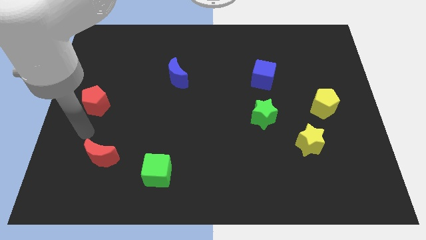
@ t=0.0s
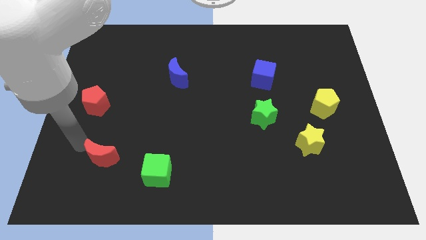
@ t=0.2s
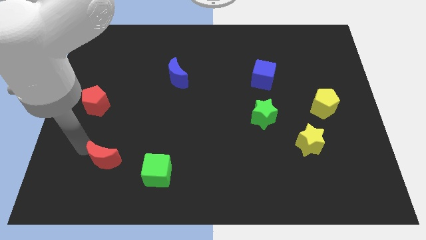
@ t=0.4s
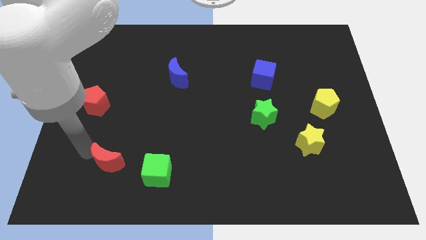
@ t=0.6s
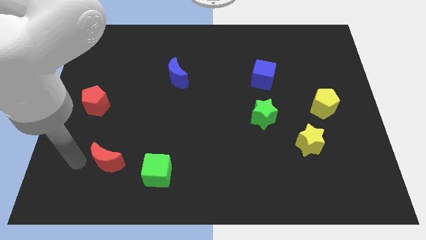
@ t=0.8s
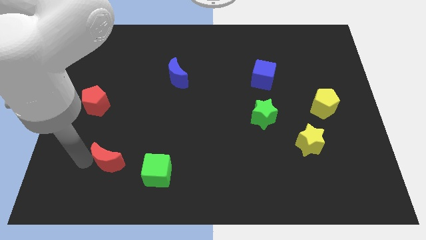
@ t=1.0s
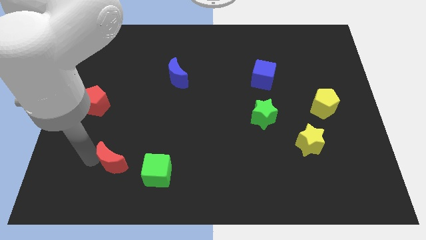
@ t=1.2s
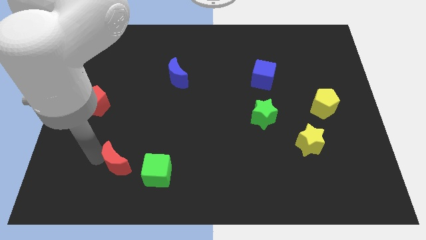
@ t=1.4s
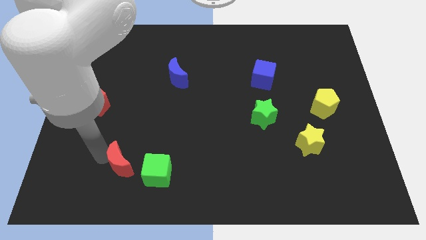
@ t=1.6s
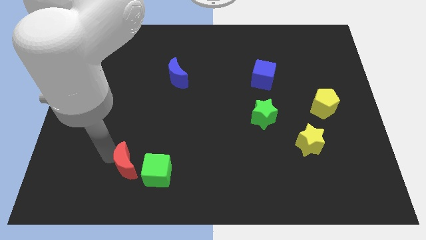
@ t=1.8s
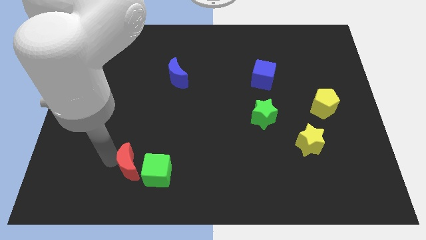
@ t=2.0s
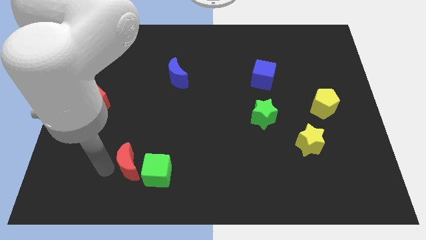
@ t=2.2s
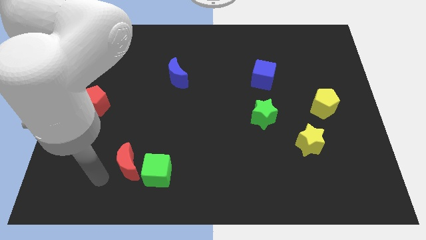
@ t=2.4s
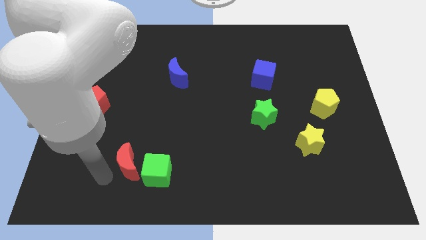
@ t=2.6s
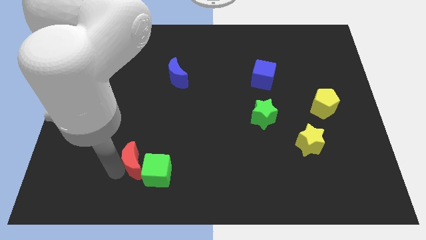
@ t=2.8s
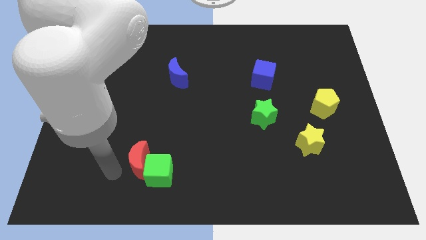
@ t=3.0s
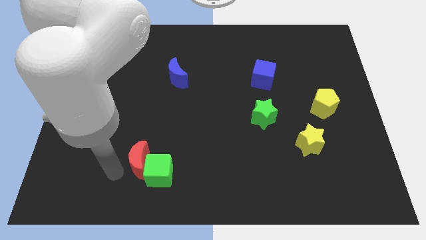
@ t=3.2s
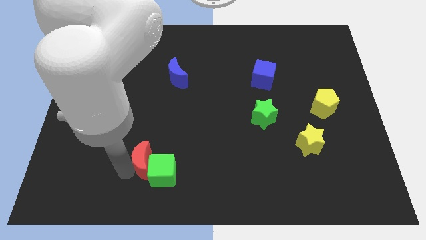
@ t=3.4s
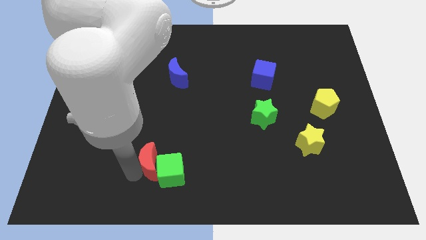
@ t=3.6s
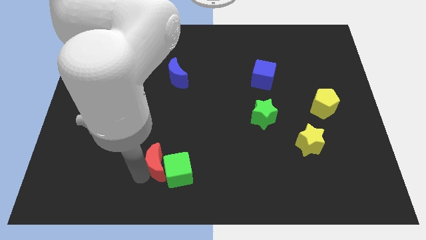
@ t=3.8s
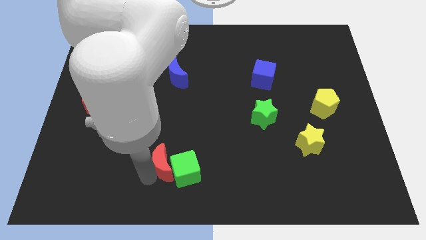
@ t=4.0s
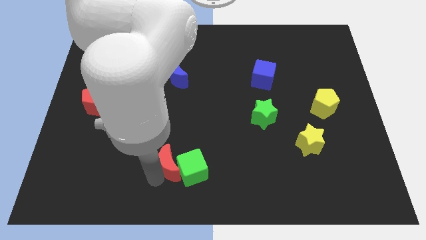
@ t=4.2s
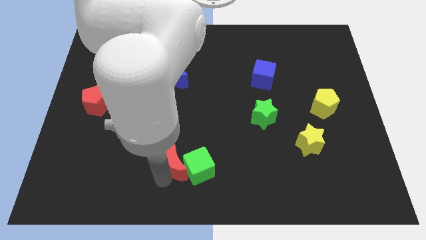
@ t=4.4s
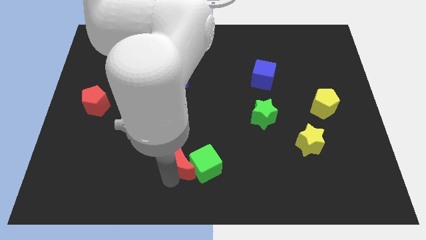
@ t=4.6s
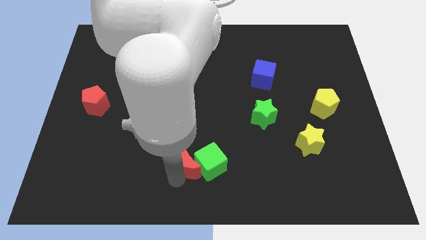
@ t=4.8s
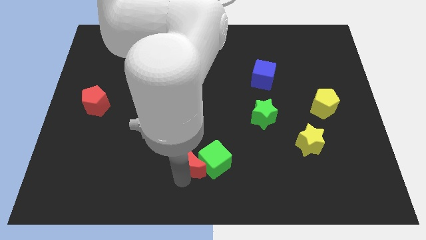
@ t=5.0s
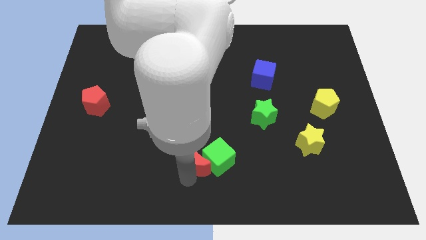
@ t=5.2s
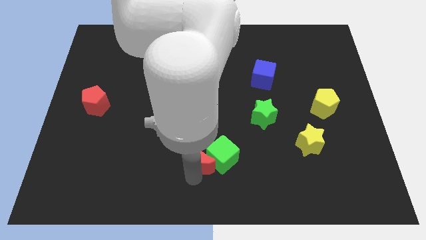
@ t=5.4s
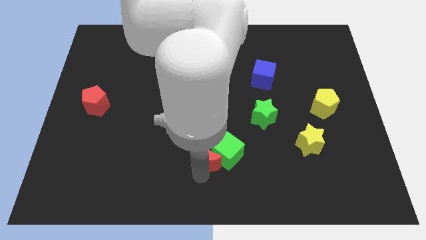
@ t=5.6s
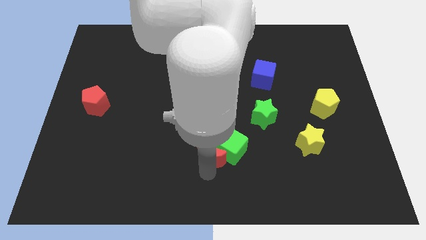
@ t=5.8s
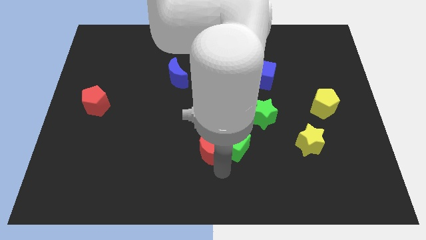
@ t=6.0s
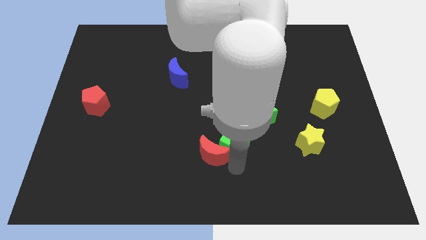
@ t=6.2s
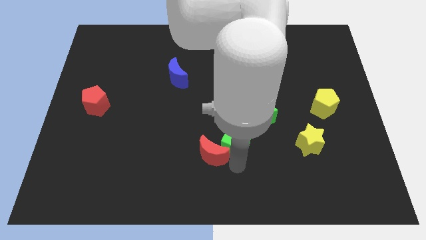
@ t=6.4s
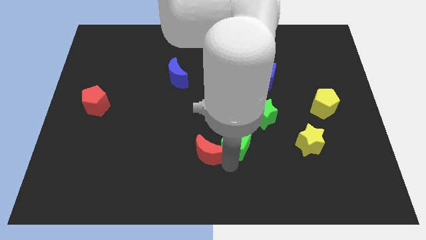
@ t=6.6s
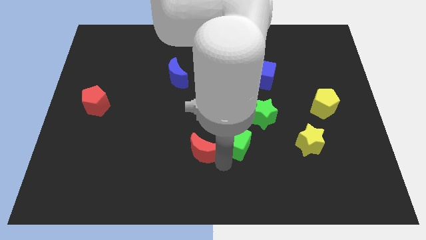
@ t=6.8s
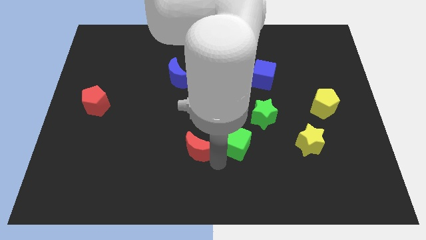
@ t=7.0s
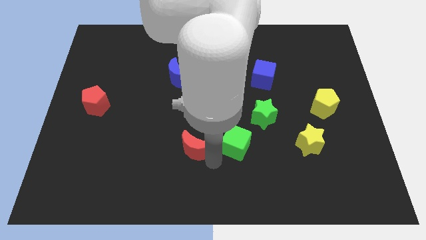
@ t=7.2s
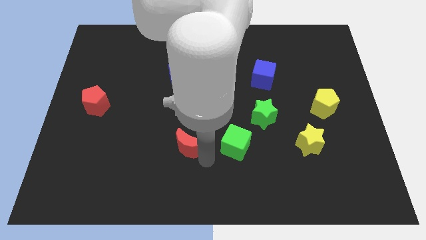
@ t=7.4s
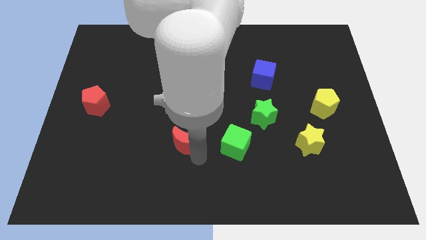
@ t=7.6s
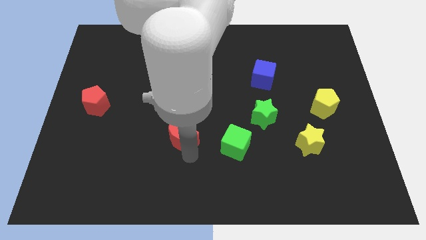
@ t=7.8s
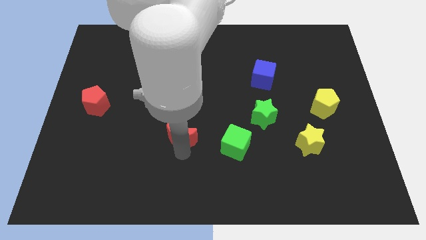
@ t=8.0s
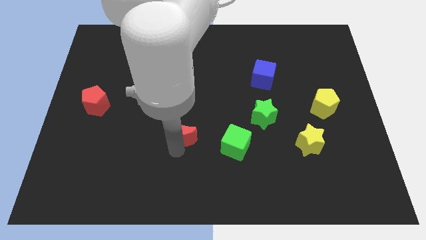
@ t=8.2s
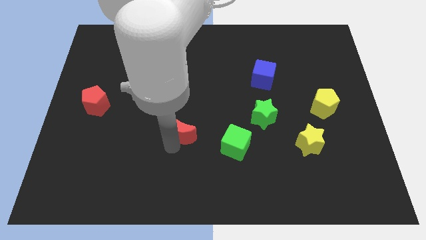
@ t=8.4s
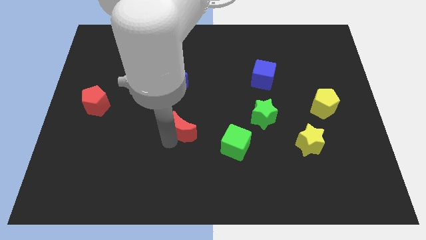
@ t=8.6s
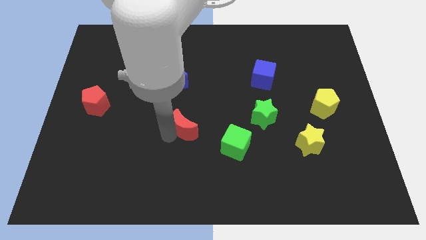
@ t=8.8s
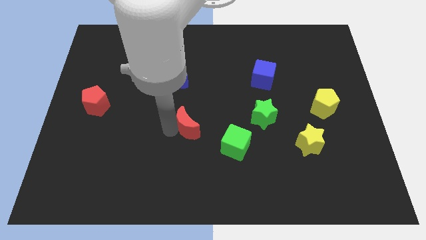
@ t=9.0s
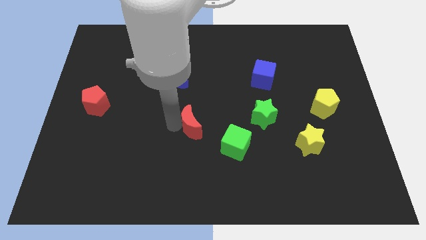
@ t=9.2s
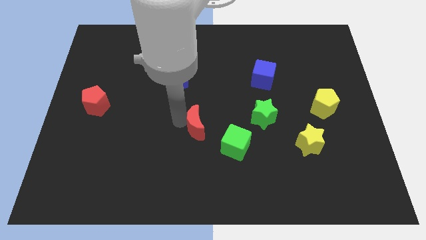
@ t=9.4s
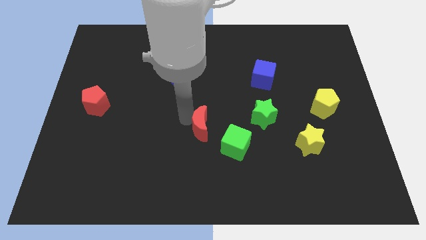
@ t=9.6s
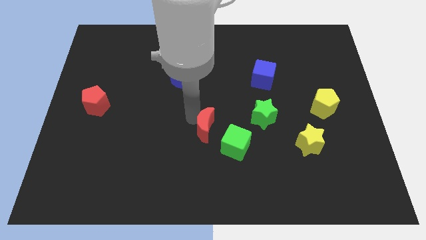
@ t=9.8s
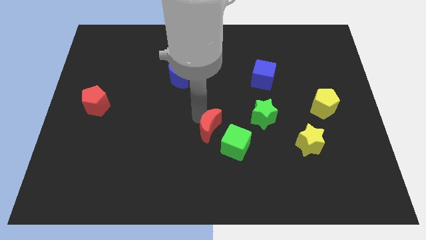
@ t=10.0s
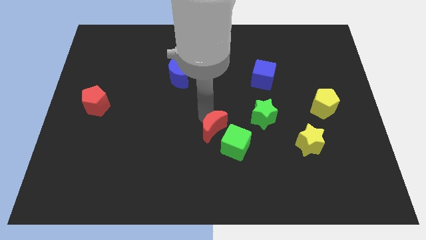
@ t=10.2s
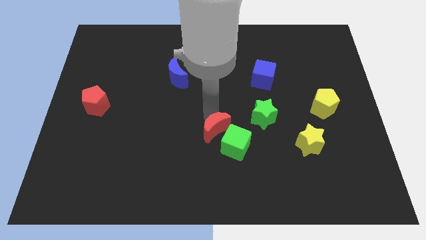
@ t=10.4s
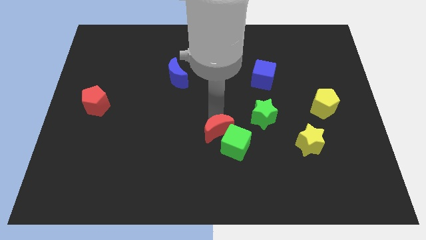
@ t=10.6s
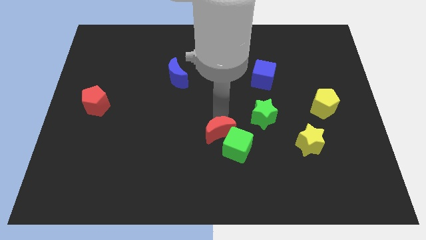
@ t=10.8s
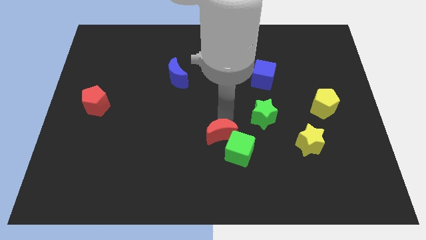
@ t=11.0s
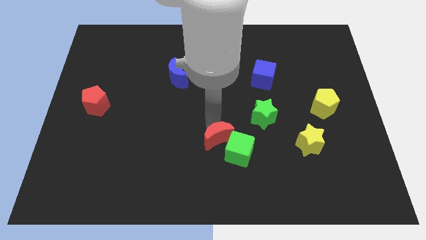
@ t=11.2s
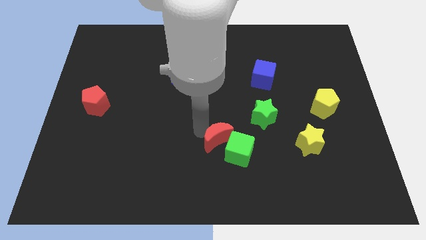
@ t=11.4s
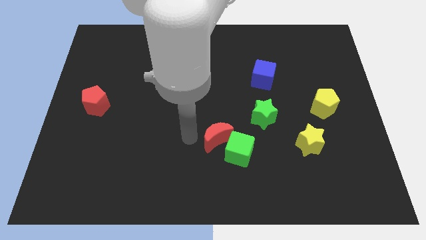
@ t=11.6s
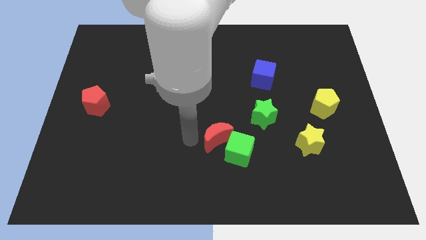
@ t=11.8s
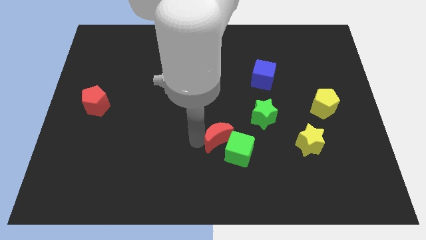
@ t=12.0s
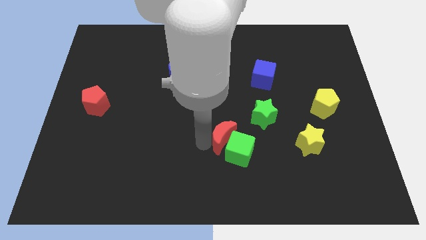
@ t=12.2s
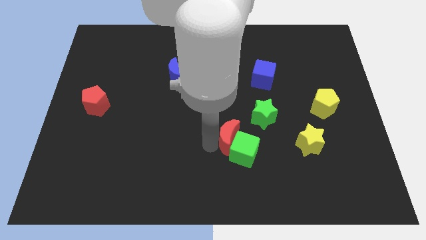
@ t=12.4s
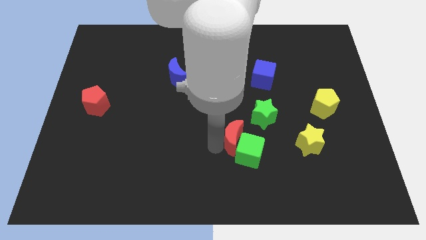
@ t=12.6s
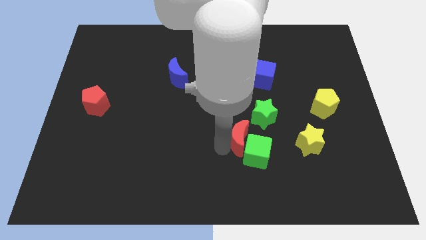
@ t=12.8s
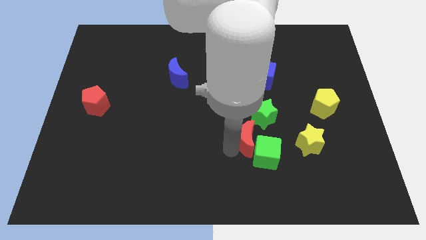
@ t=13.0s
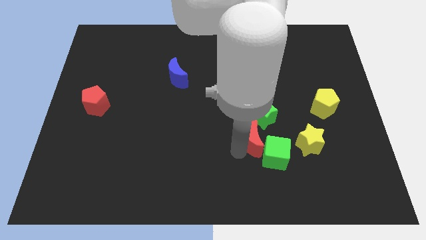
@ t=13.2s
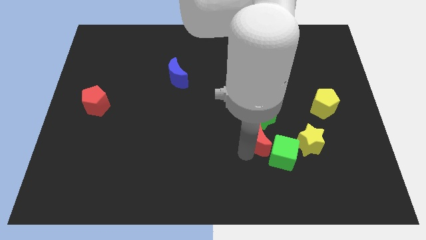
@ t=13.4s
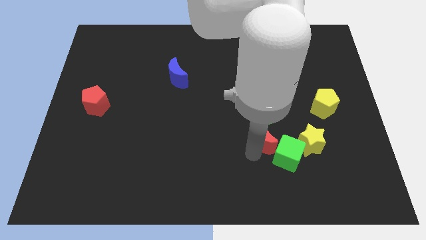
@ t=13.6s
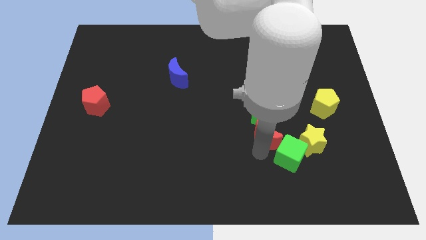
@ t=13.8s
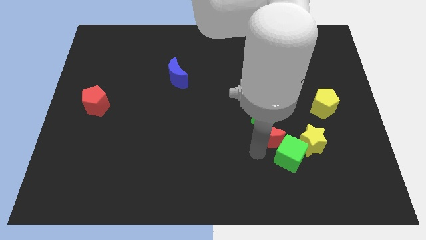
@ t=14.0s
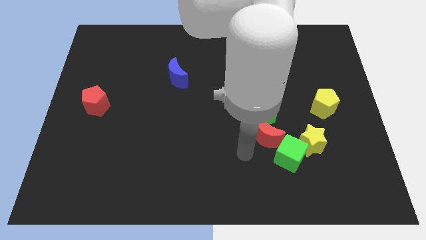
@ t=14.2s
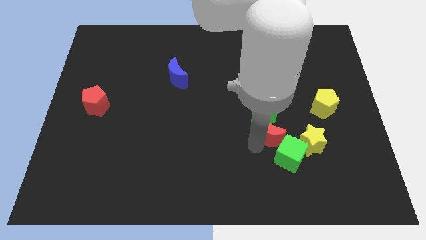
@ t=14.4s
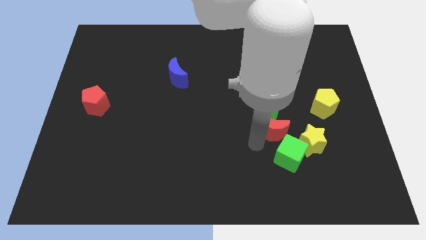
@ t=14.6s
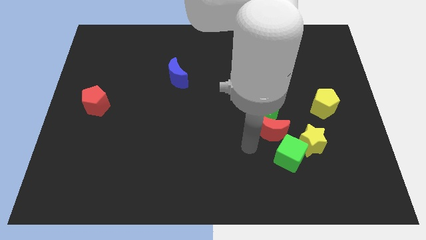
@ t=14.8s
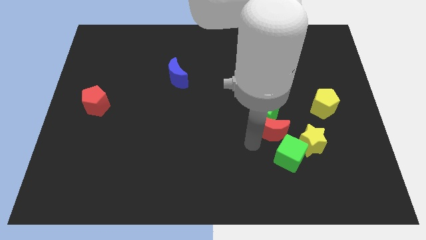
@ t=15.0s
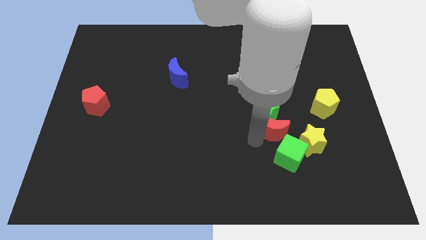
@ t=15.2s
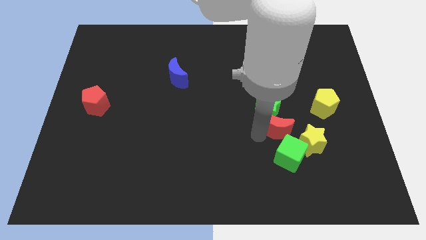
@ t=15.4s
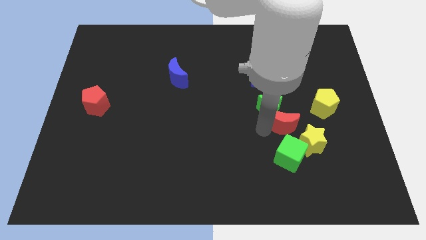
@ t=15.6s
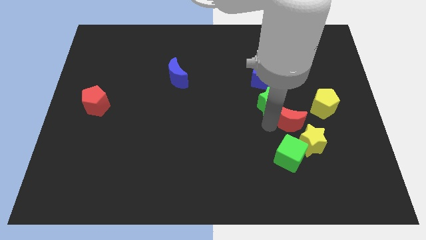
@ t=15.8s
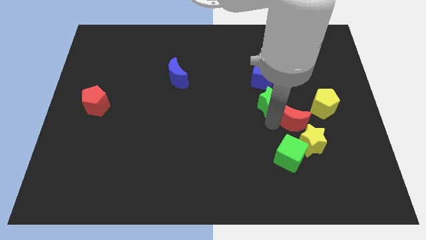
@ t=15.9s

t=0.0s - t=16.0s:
move the red moon just right of the green star
